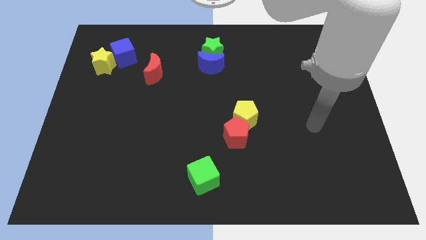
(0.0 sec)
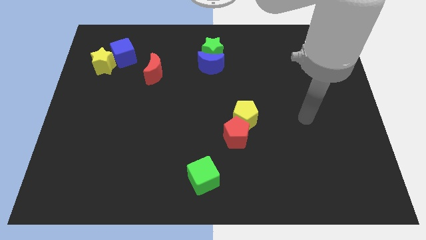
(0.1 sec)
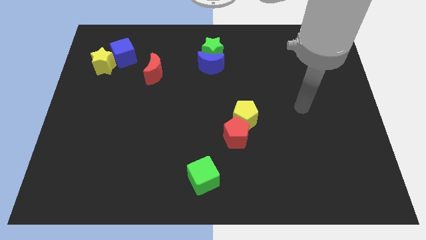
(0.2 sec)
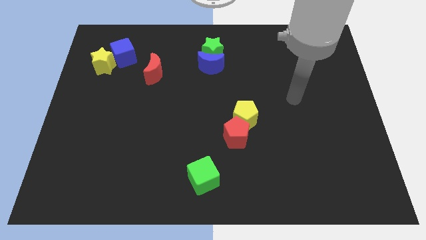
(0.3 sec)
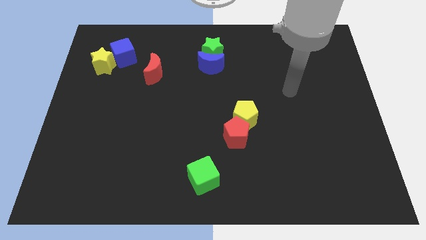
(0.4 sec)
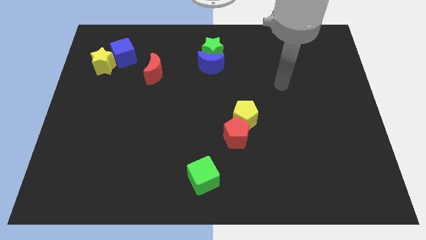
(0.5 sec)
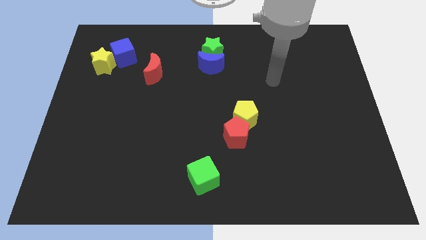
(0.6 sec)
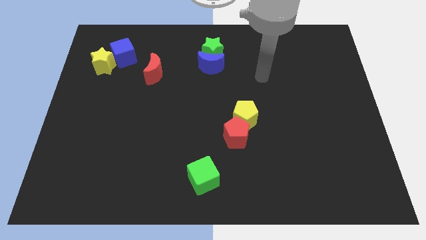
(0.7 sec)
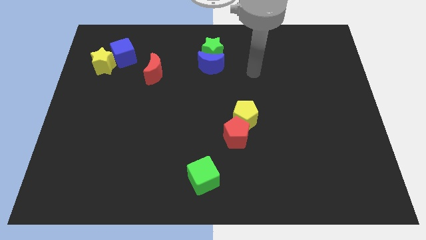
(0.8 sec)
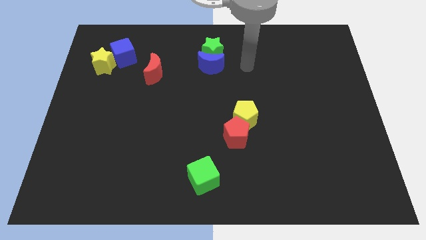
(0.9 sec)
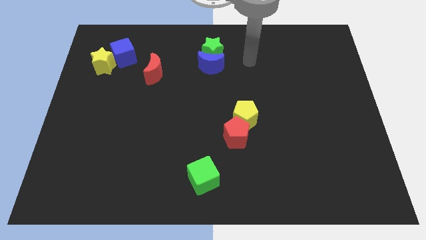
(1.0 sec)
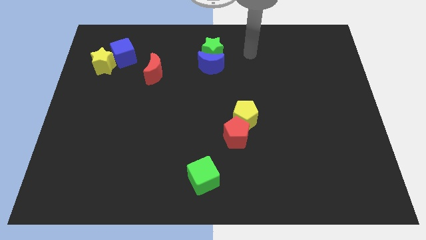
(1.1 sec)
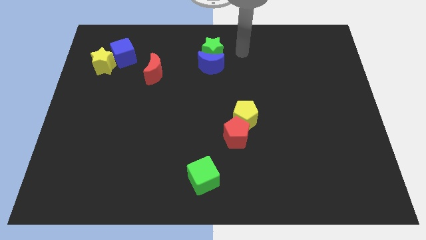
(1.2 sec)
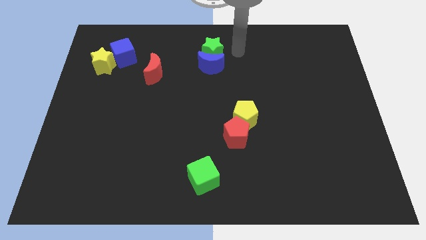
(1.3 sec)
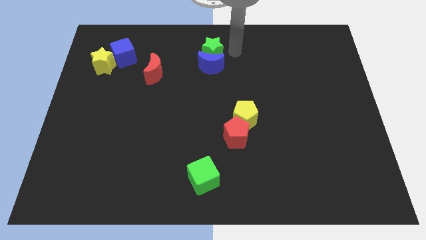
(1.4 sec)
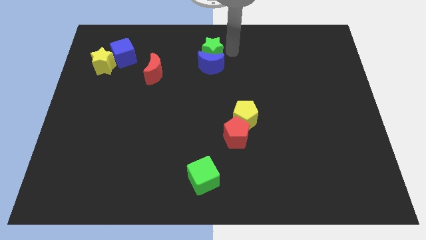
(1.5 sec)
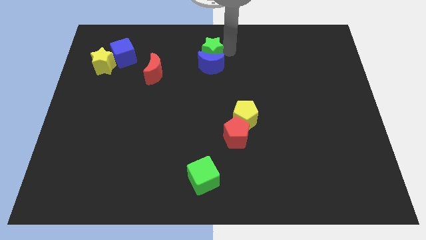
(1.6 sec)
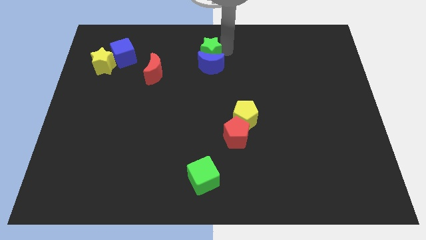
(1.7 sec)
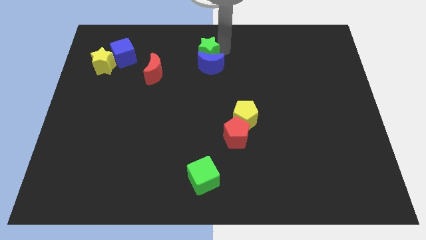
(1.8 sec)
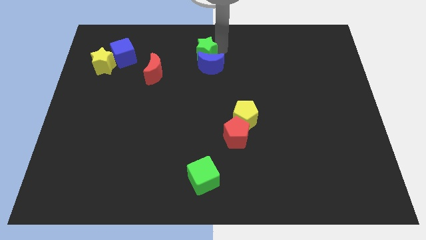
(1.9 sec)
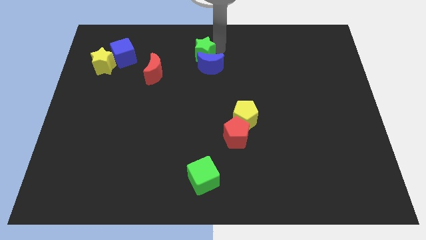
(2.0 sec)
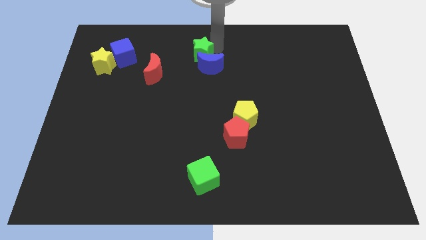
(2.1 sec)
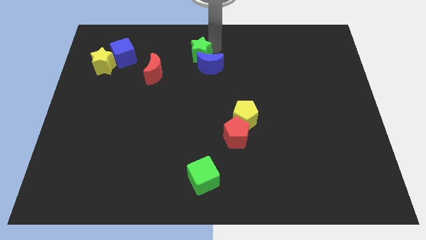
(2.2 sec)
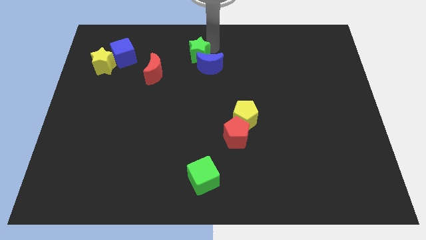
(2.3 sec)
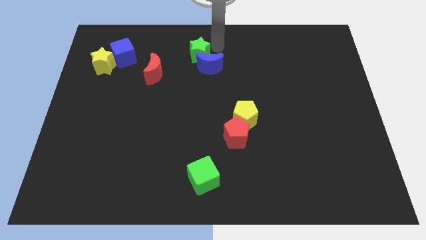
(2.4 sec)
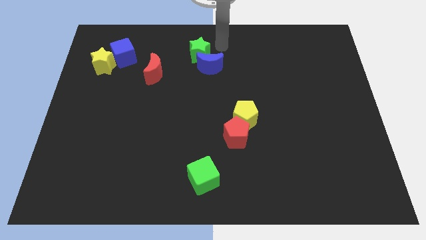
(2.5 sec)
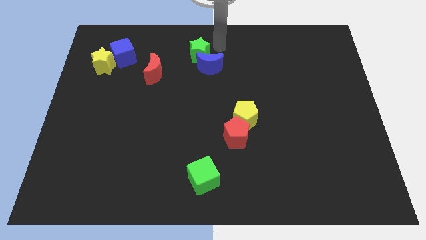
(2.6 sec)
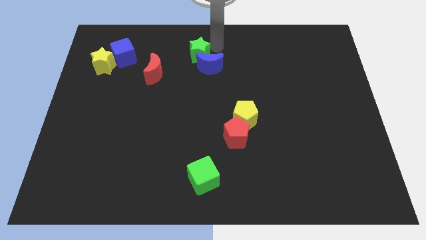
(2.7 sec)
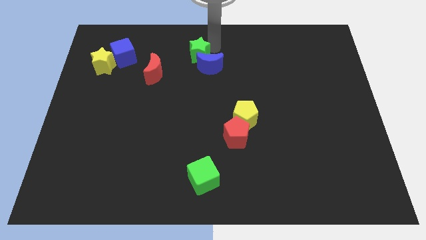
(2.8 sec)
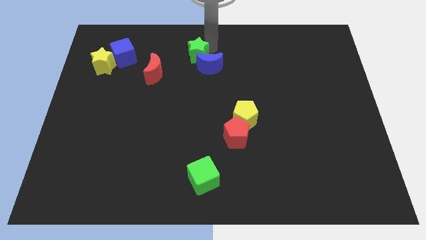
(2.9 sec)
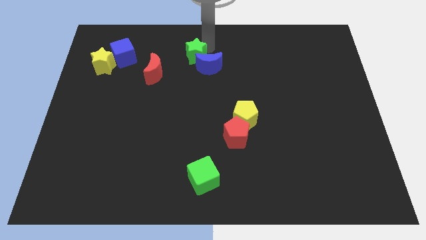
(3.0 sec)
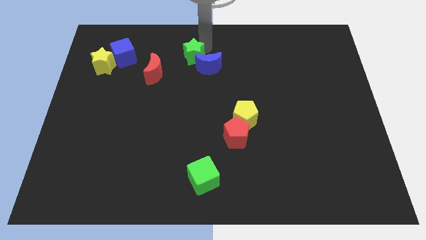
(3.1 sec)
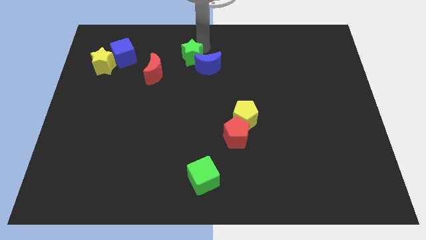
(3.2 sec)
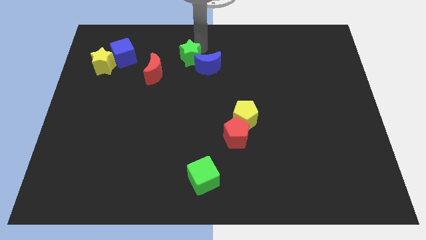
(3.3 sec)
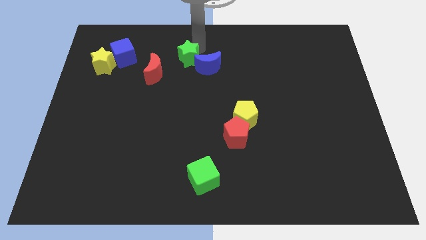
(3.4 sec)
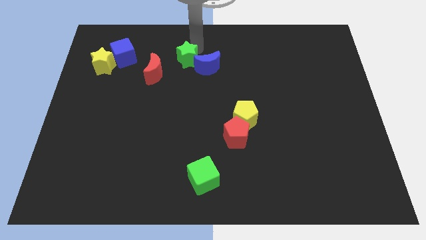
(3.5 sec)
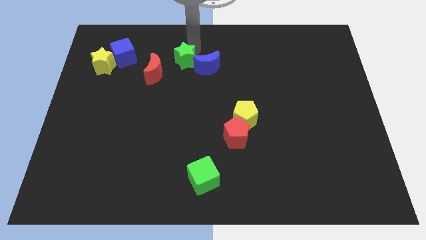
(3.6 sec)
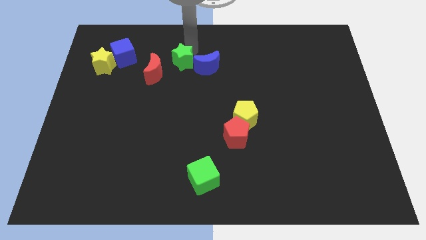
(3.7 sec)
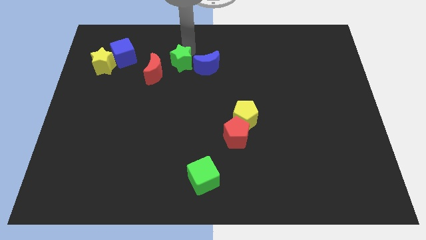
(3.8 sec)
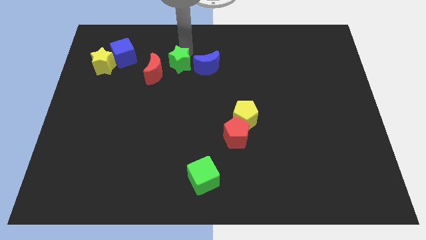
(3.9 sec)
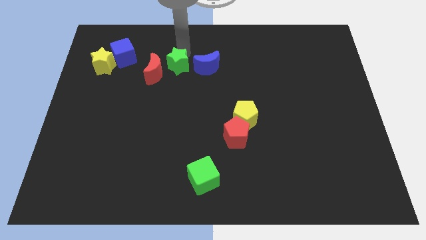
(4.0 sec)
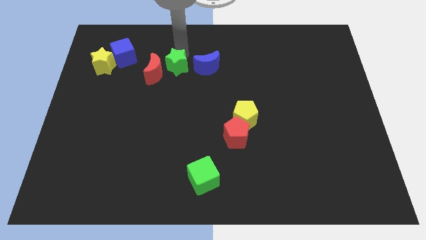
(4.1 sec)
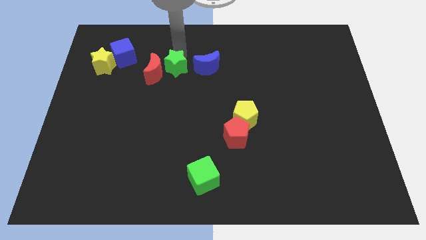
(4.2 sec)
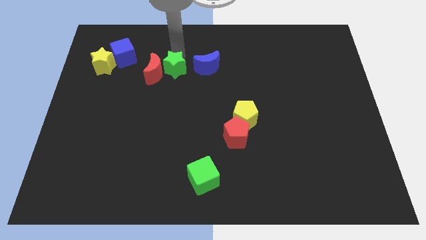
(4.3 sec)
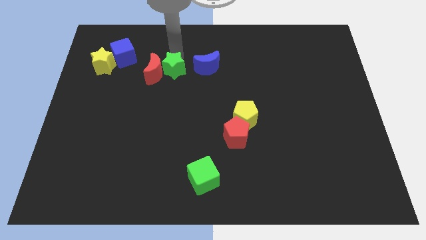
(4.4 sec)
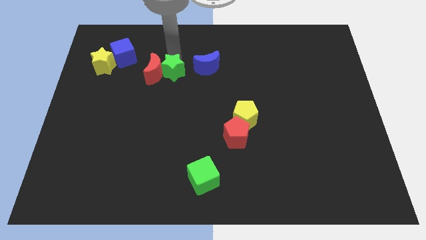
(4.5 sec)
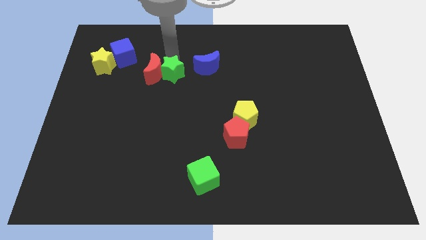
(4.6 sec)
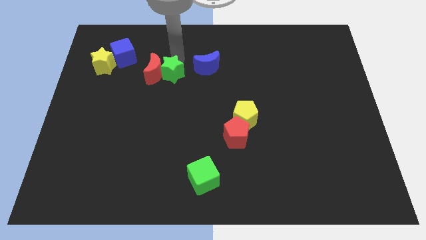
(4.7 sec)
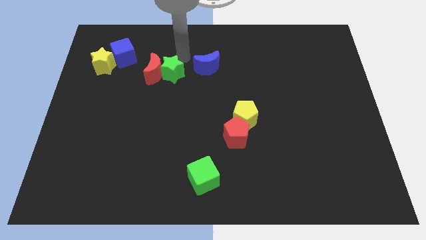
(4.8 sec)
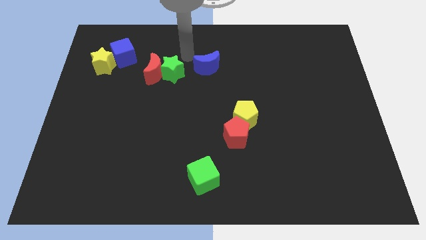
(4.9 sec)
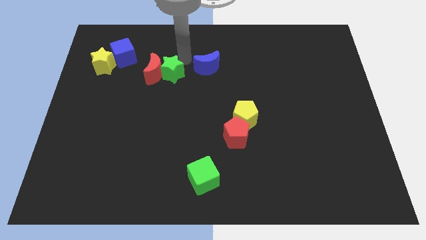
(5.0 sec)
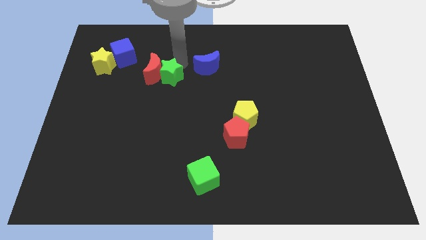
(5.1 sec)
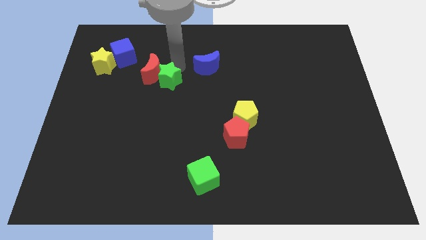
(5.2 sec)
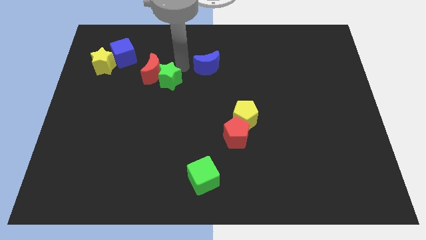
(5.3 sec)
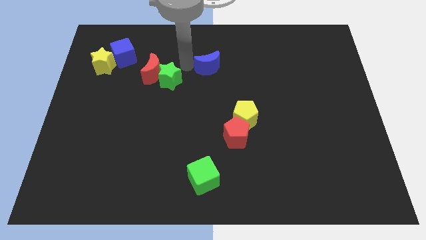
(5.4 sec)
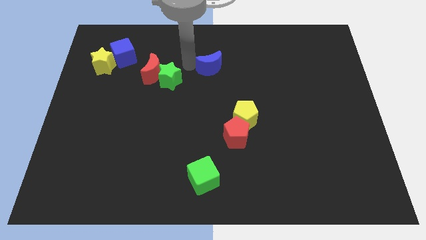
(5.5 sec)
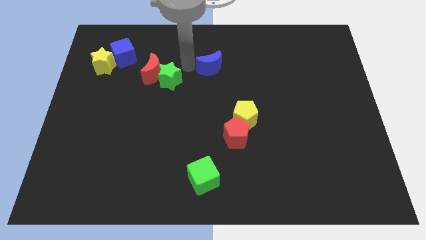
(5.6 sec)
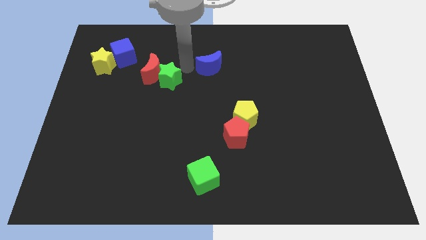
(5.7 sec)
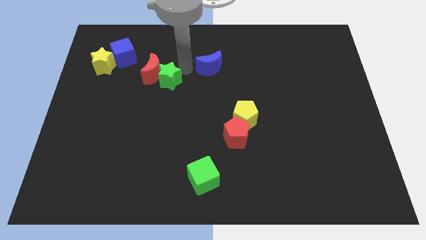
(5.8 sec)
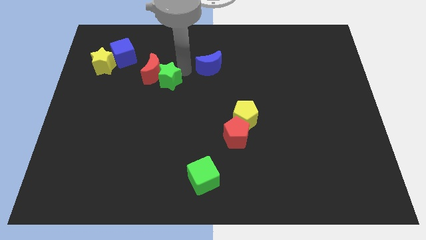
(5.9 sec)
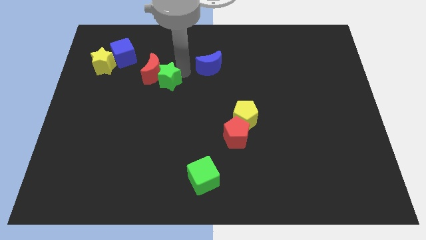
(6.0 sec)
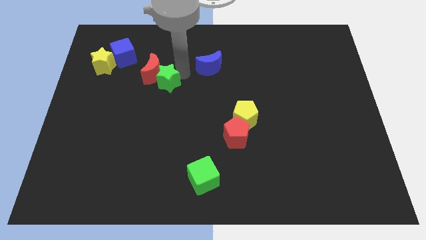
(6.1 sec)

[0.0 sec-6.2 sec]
put the green star to the bottom of the red moon

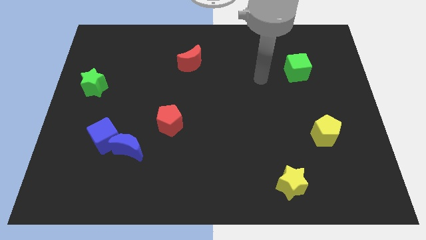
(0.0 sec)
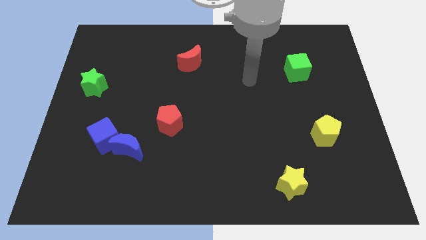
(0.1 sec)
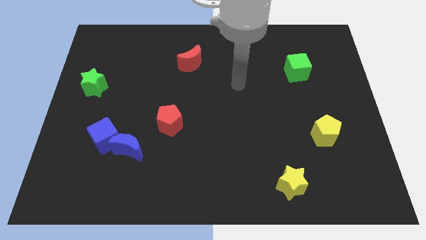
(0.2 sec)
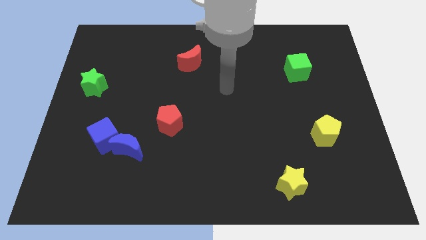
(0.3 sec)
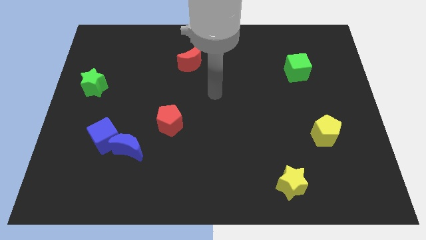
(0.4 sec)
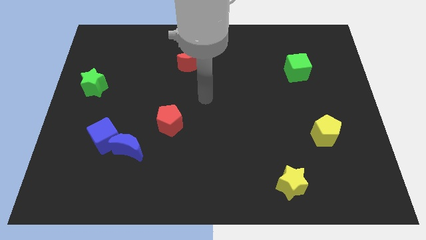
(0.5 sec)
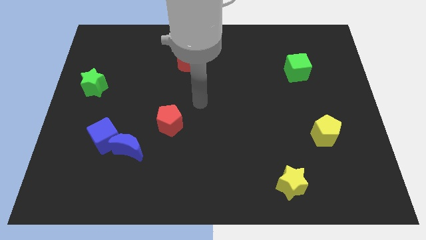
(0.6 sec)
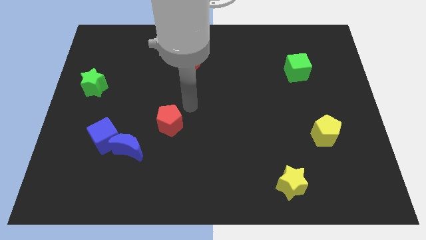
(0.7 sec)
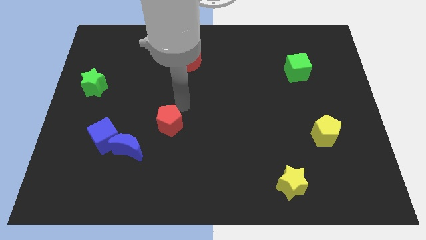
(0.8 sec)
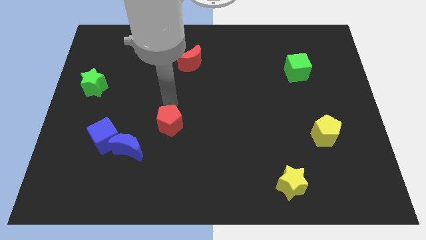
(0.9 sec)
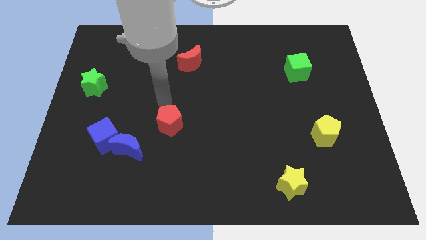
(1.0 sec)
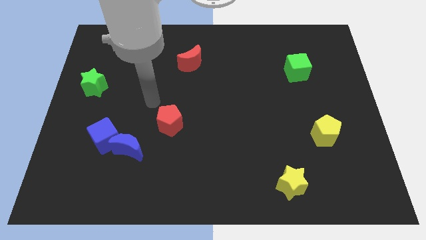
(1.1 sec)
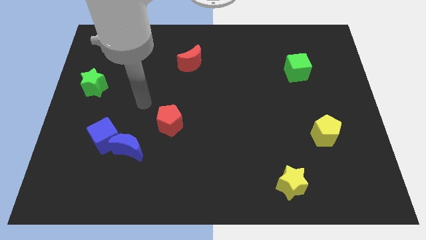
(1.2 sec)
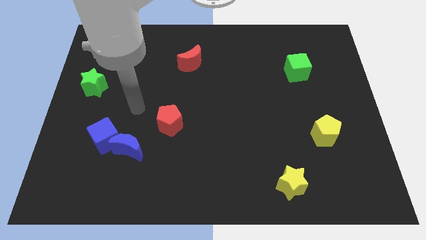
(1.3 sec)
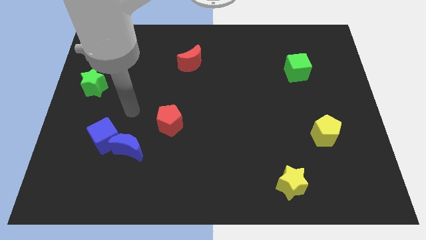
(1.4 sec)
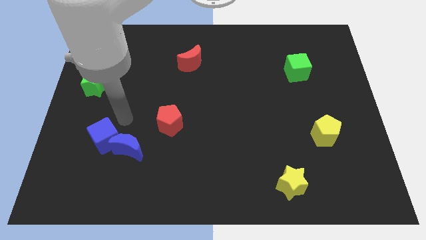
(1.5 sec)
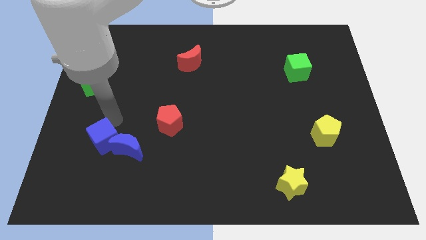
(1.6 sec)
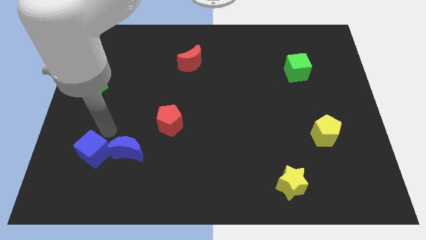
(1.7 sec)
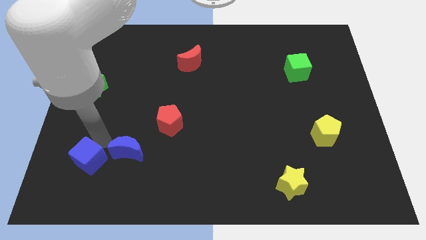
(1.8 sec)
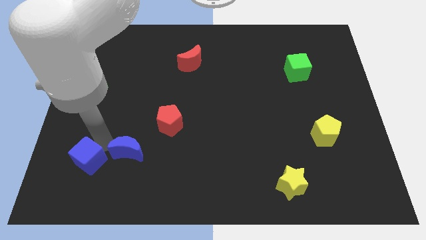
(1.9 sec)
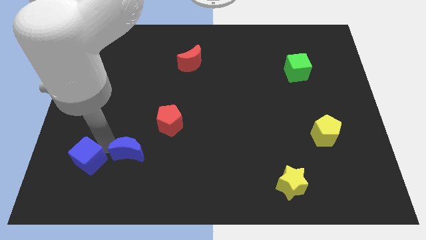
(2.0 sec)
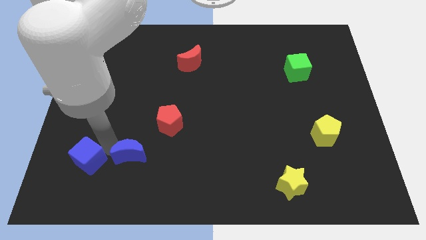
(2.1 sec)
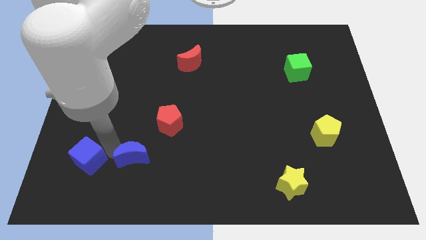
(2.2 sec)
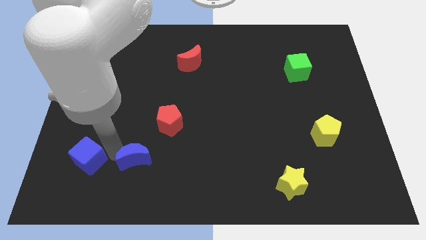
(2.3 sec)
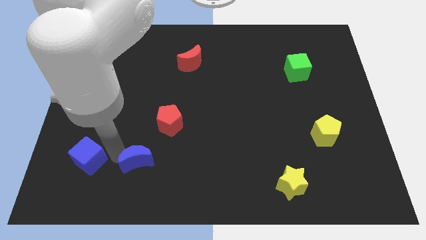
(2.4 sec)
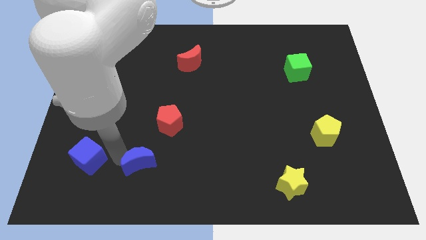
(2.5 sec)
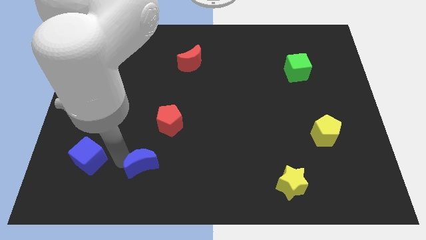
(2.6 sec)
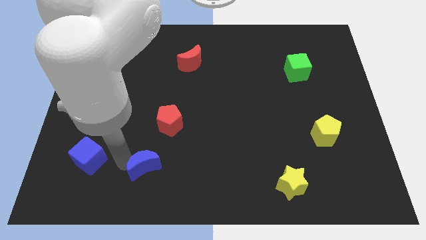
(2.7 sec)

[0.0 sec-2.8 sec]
move the blue moon below the red pentagon
